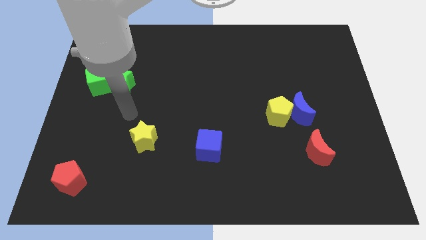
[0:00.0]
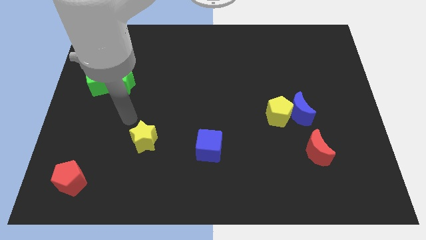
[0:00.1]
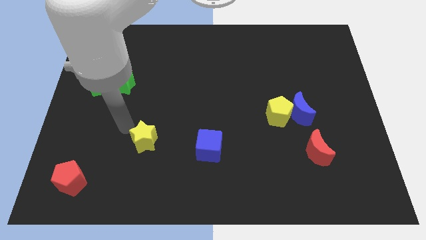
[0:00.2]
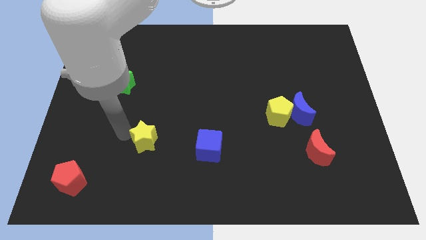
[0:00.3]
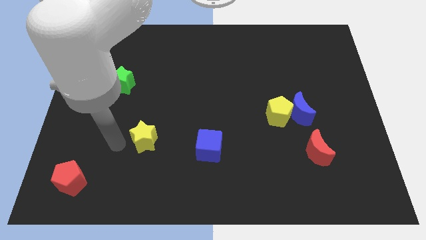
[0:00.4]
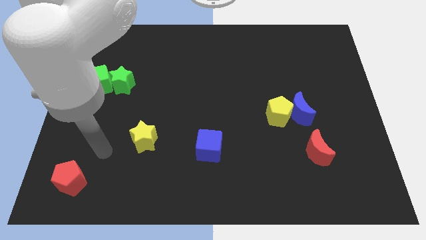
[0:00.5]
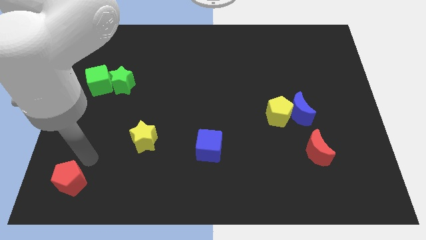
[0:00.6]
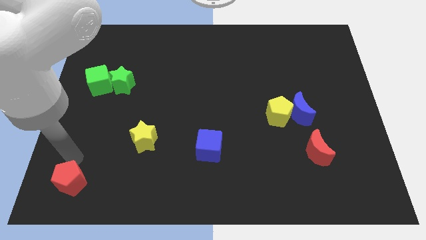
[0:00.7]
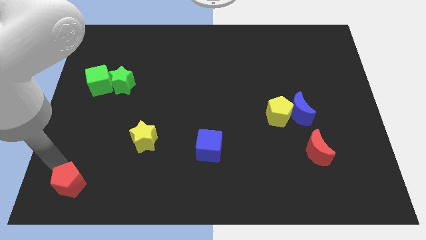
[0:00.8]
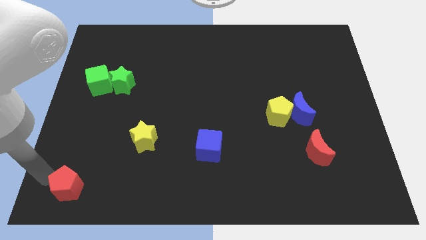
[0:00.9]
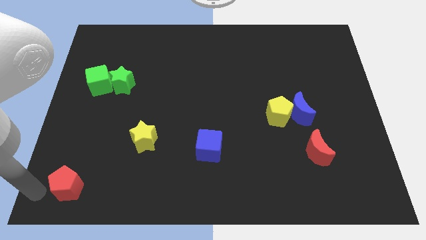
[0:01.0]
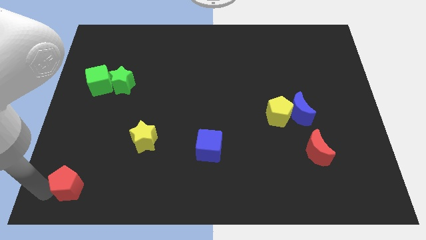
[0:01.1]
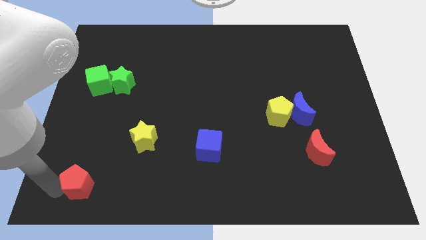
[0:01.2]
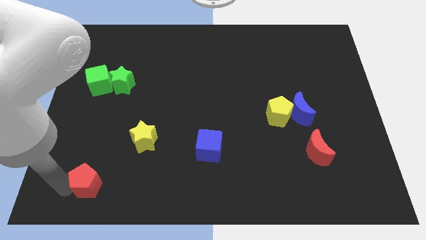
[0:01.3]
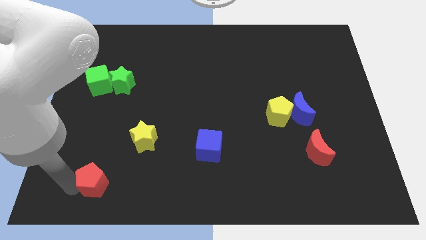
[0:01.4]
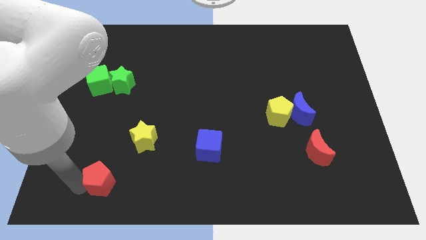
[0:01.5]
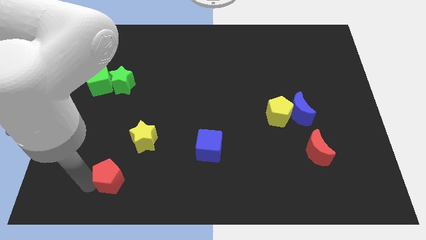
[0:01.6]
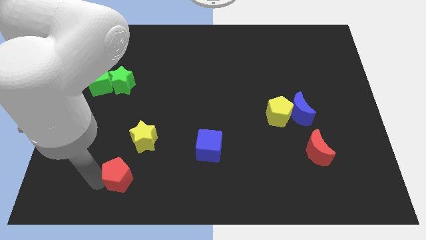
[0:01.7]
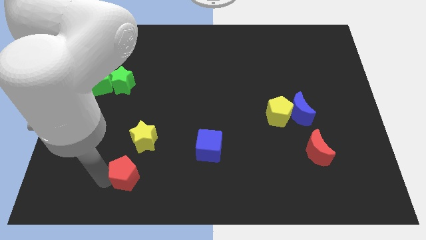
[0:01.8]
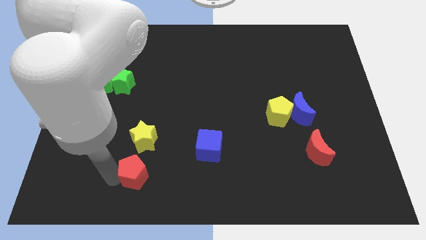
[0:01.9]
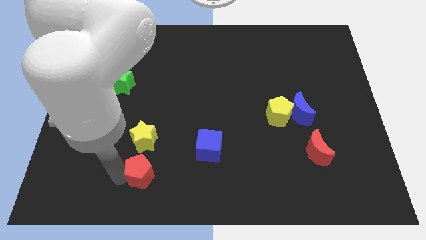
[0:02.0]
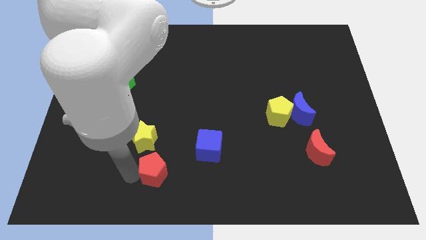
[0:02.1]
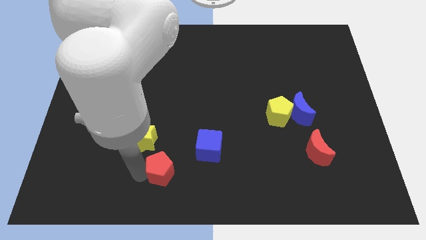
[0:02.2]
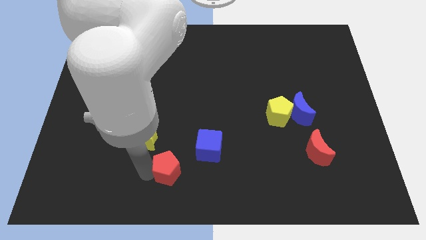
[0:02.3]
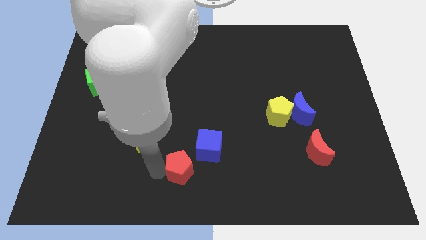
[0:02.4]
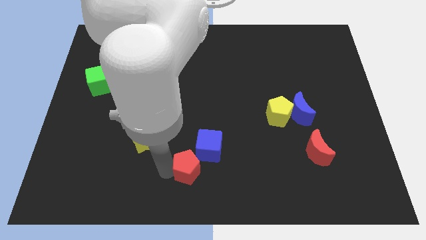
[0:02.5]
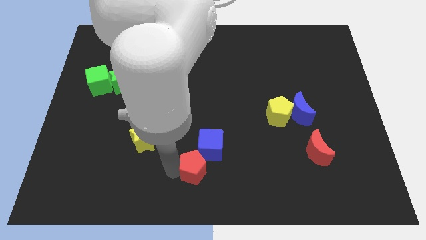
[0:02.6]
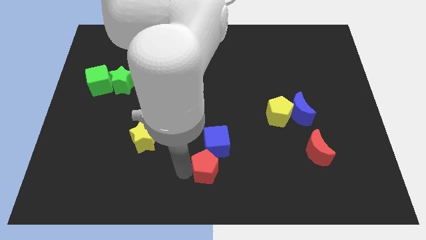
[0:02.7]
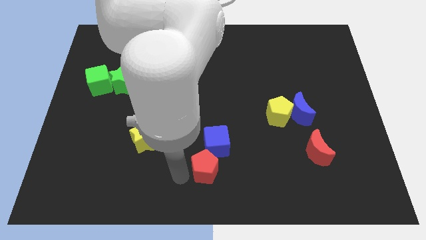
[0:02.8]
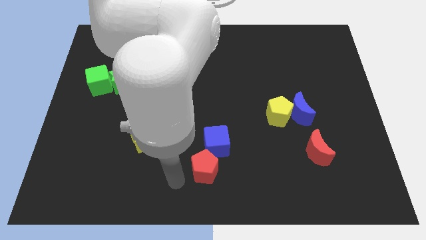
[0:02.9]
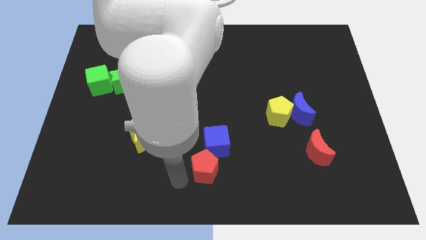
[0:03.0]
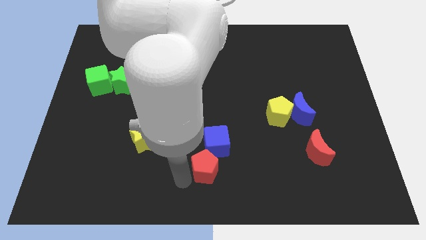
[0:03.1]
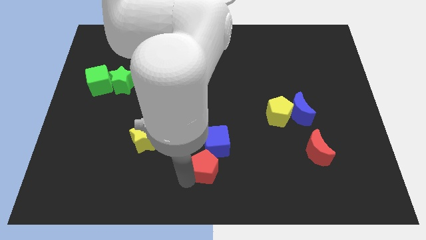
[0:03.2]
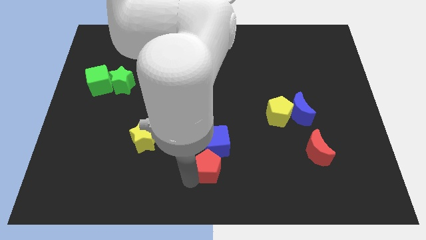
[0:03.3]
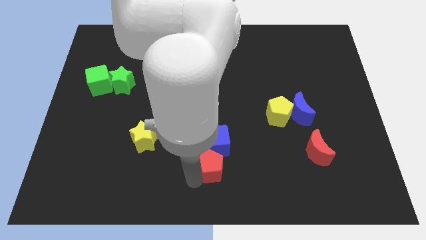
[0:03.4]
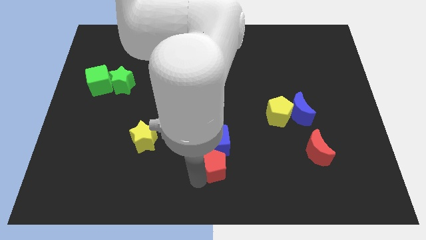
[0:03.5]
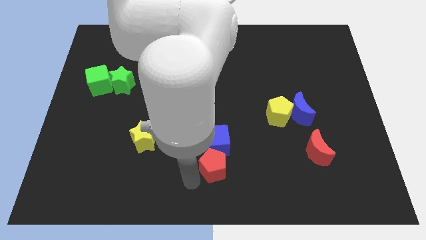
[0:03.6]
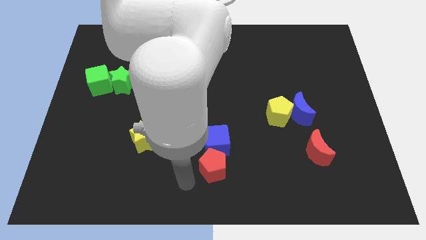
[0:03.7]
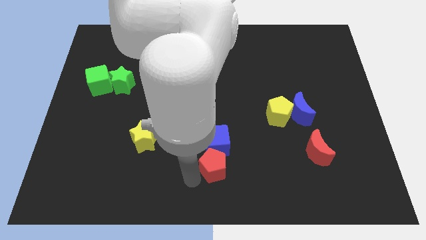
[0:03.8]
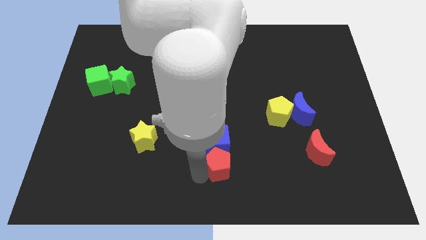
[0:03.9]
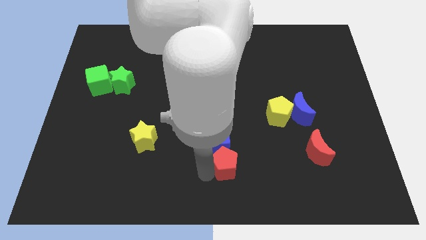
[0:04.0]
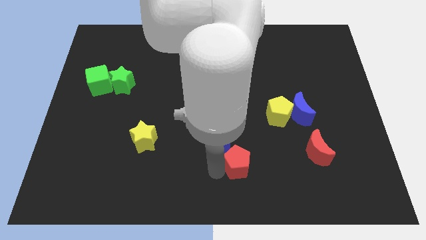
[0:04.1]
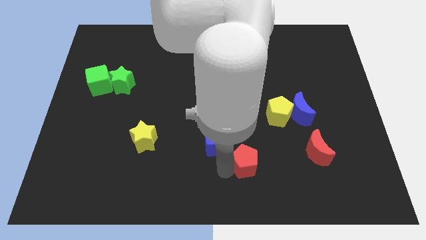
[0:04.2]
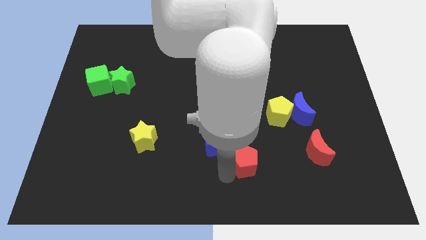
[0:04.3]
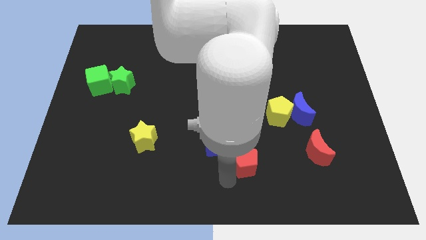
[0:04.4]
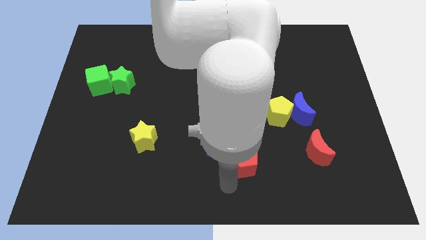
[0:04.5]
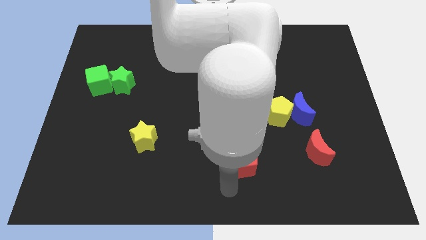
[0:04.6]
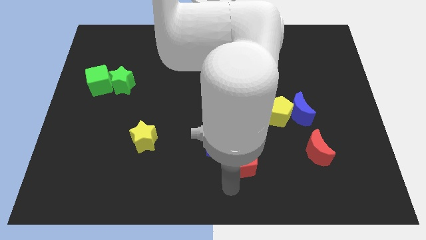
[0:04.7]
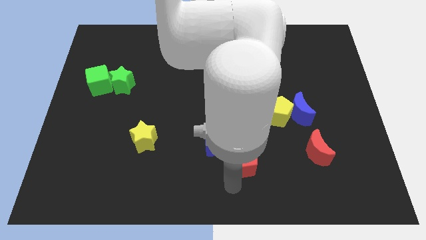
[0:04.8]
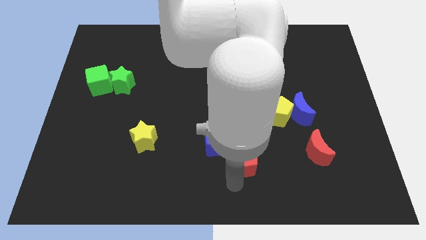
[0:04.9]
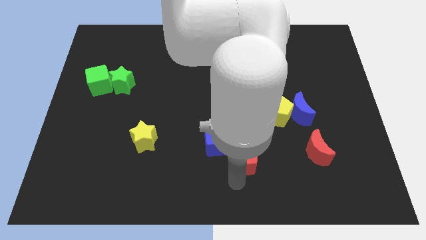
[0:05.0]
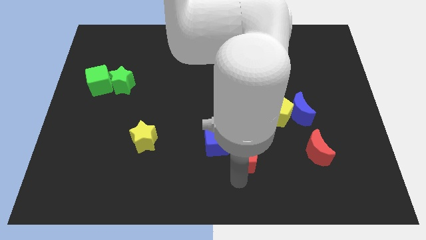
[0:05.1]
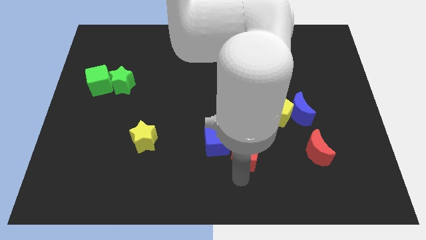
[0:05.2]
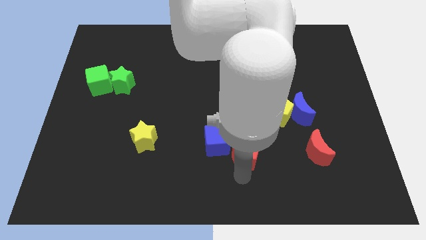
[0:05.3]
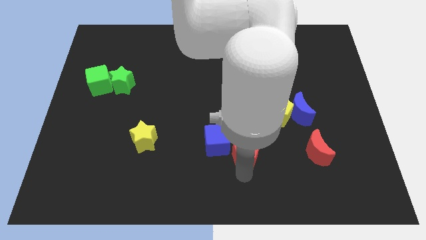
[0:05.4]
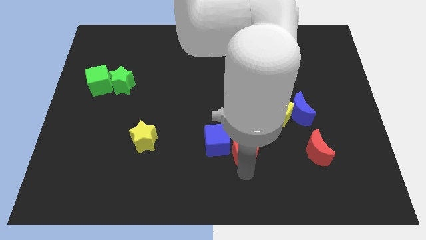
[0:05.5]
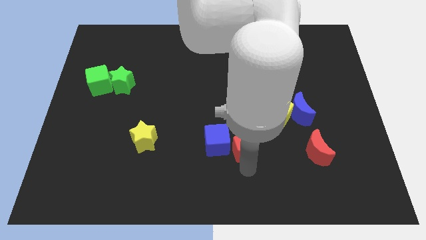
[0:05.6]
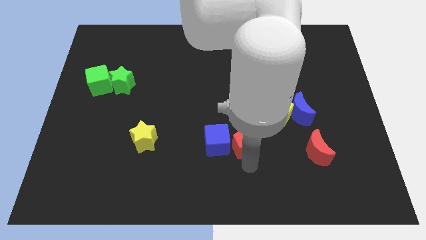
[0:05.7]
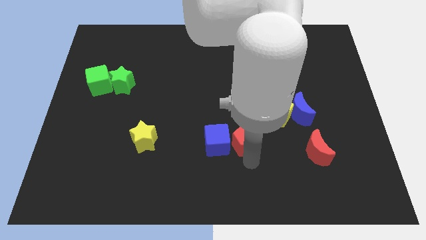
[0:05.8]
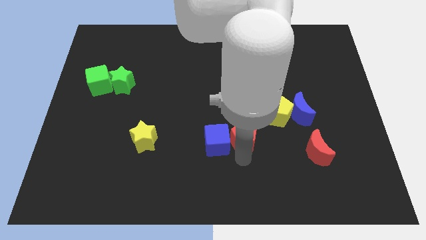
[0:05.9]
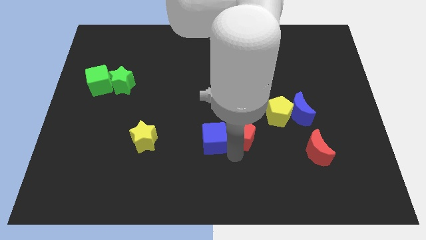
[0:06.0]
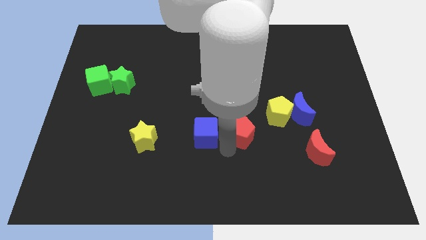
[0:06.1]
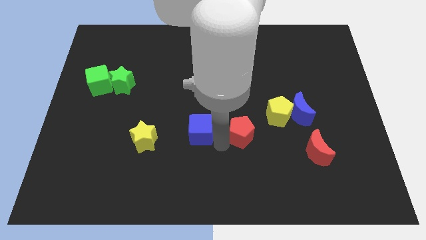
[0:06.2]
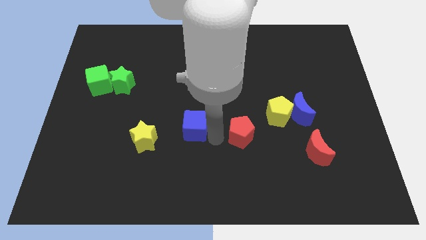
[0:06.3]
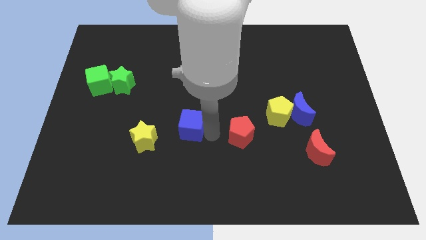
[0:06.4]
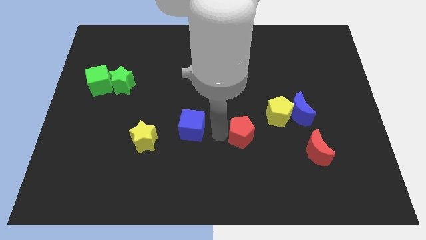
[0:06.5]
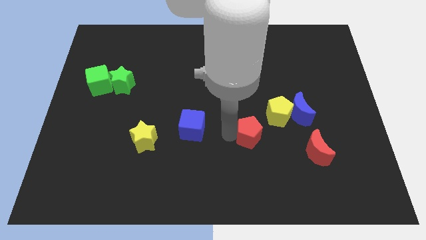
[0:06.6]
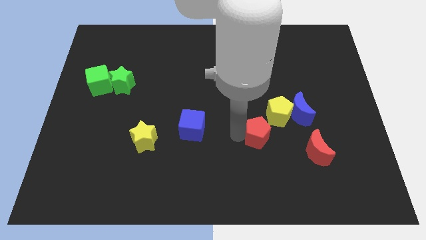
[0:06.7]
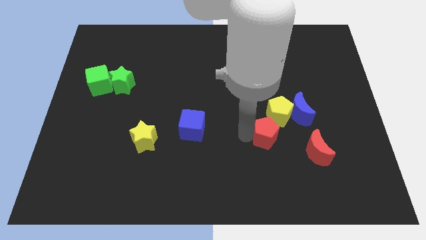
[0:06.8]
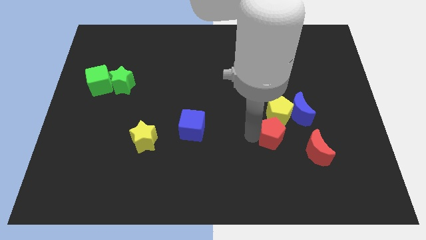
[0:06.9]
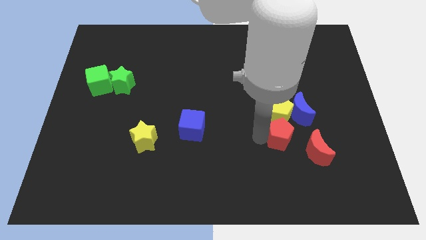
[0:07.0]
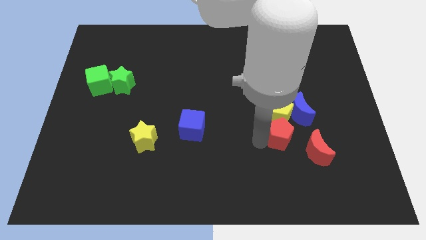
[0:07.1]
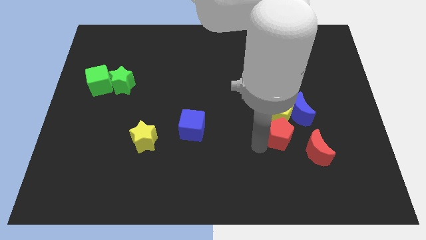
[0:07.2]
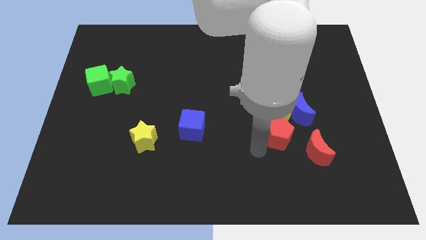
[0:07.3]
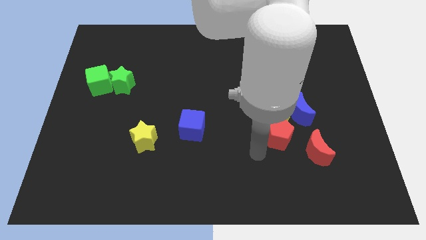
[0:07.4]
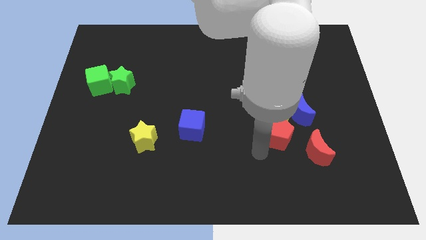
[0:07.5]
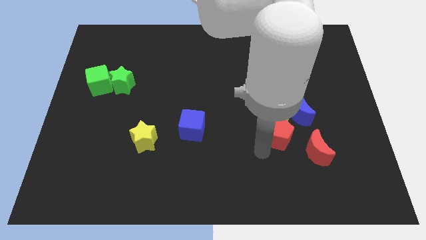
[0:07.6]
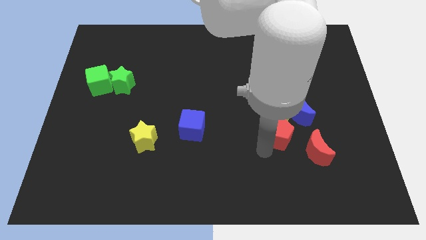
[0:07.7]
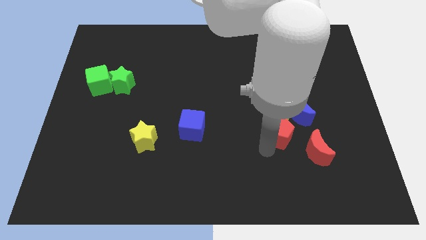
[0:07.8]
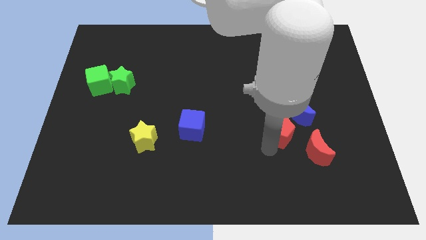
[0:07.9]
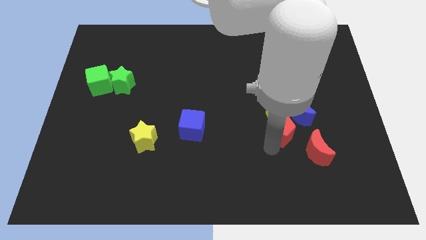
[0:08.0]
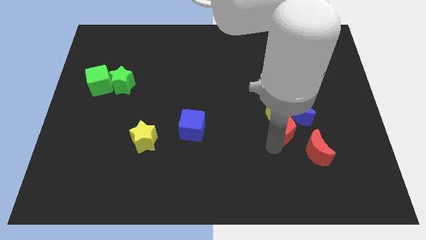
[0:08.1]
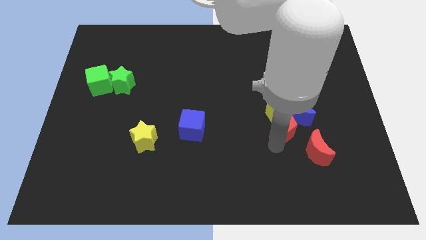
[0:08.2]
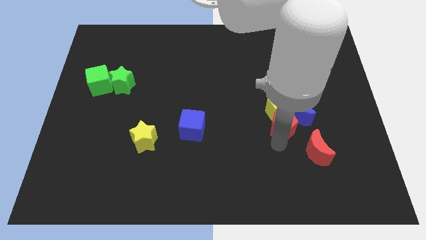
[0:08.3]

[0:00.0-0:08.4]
slide the red pentagon close to the blue moon
